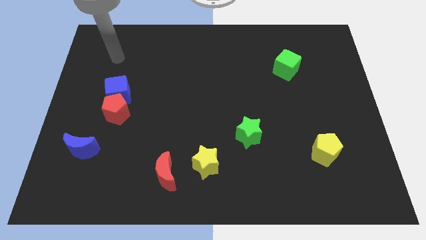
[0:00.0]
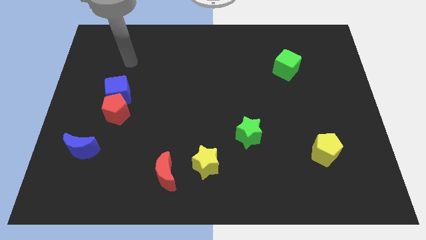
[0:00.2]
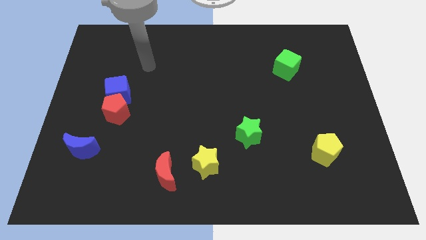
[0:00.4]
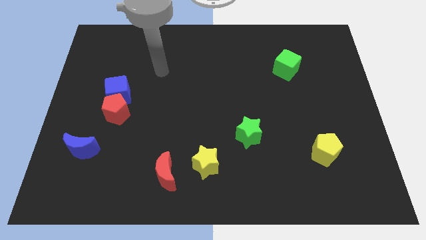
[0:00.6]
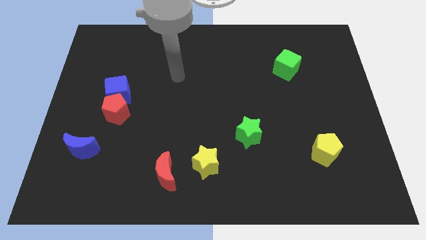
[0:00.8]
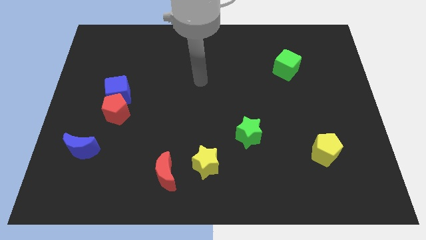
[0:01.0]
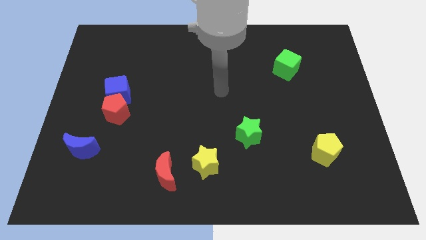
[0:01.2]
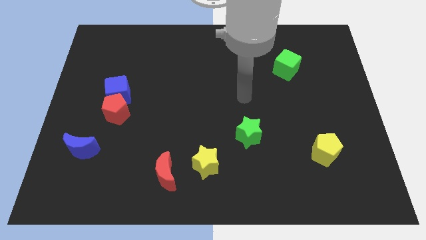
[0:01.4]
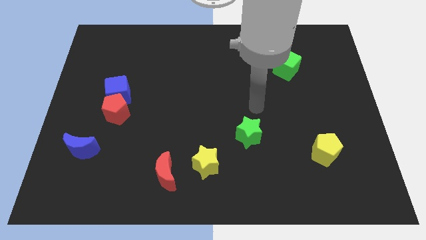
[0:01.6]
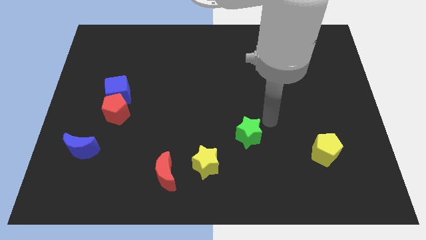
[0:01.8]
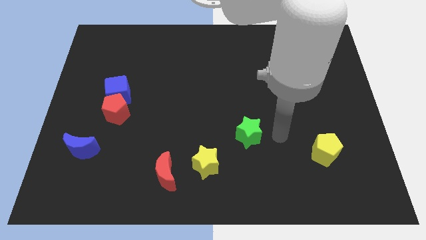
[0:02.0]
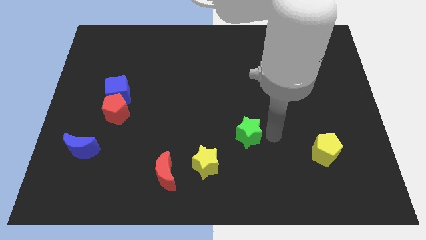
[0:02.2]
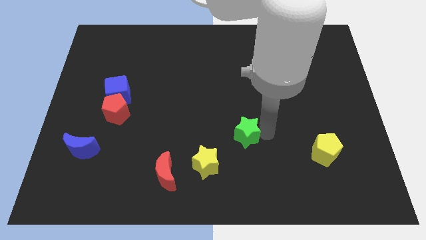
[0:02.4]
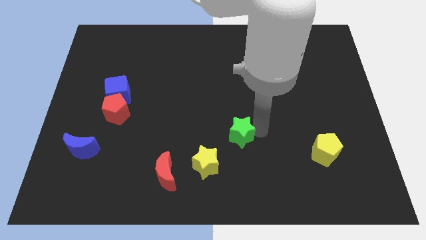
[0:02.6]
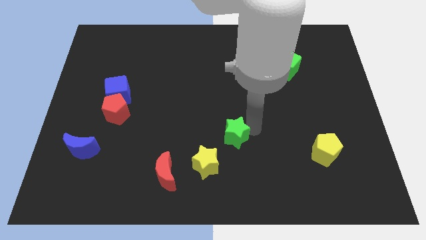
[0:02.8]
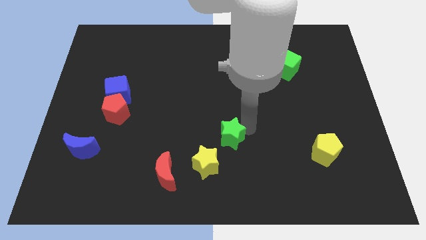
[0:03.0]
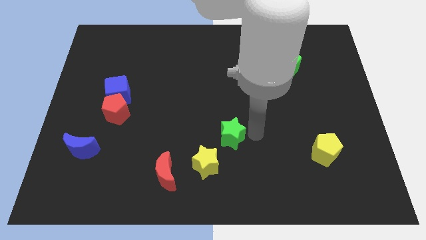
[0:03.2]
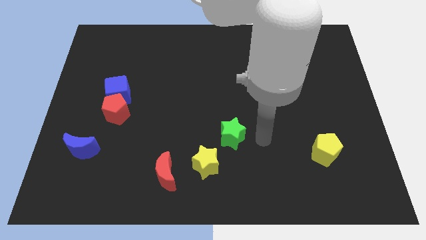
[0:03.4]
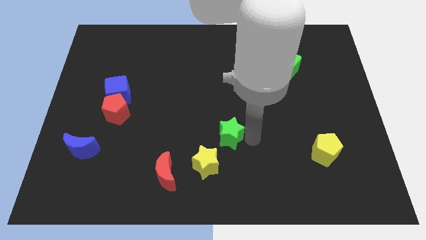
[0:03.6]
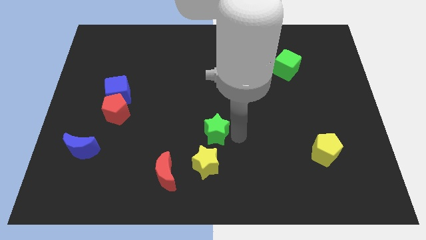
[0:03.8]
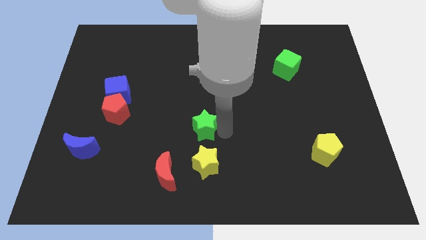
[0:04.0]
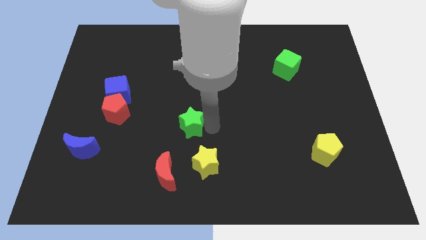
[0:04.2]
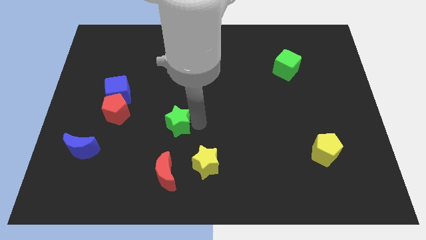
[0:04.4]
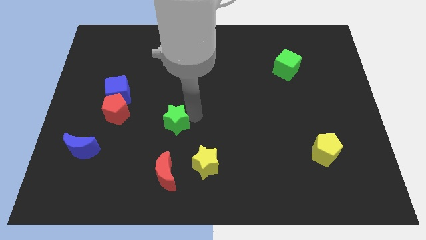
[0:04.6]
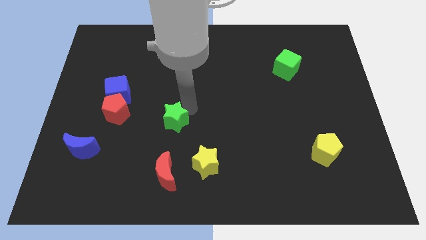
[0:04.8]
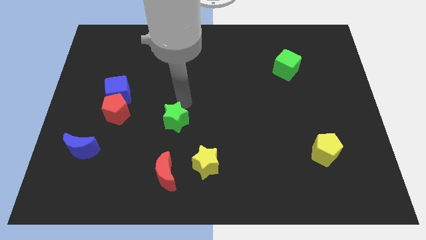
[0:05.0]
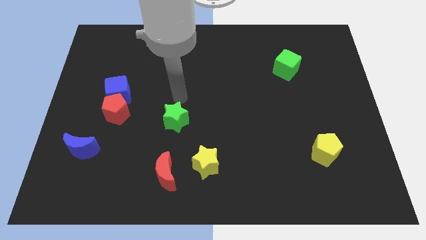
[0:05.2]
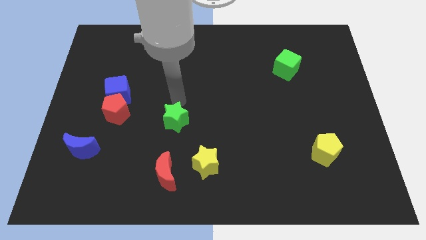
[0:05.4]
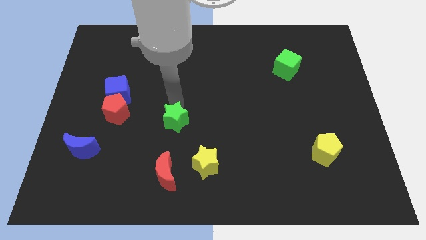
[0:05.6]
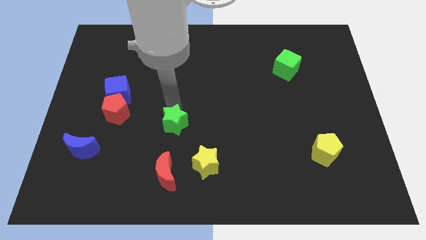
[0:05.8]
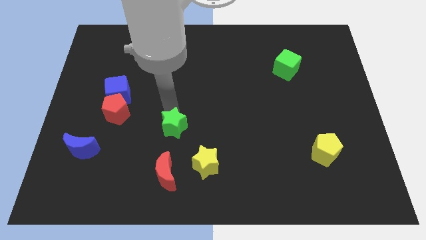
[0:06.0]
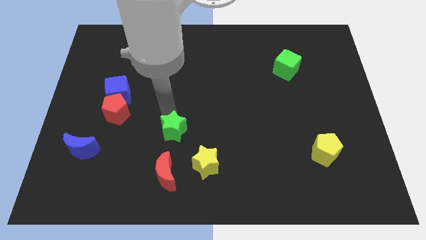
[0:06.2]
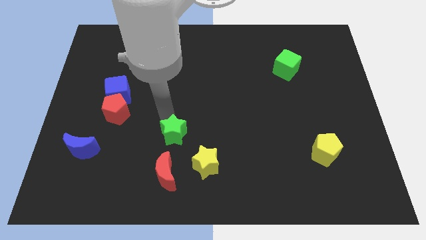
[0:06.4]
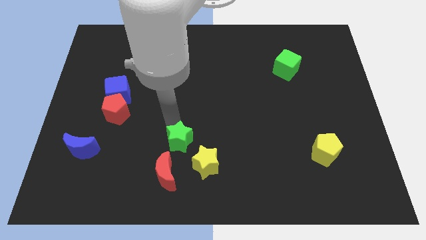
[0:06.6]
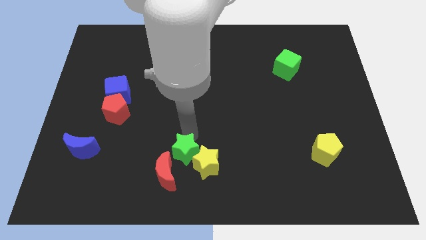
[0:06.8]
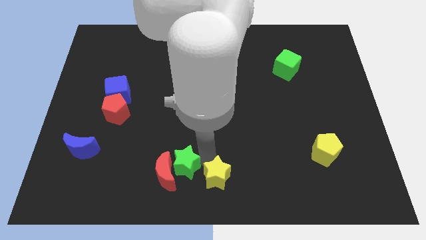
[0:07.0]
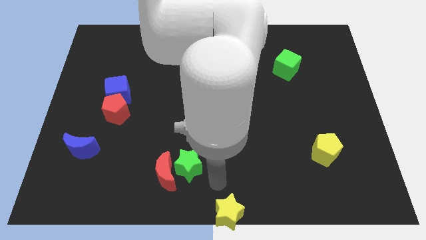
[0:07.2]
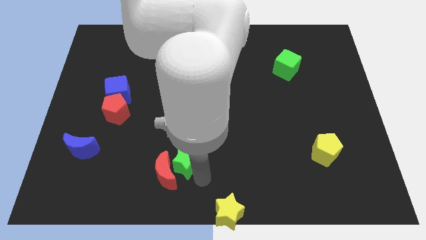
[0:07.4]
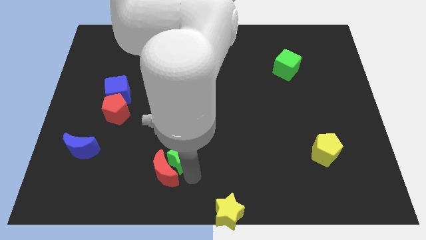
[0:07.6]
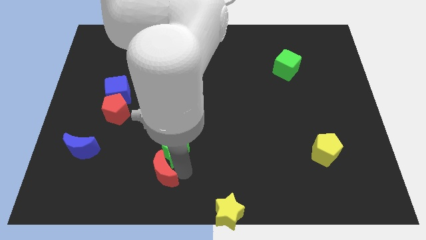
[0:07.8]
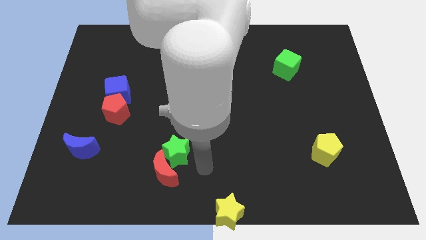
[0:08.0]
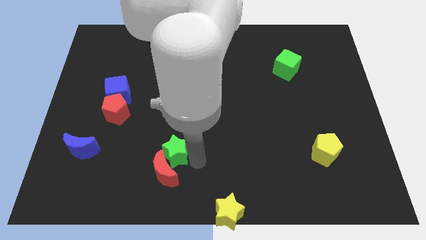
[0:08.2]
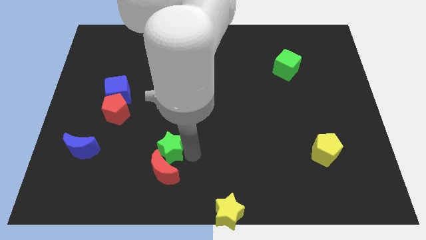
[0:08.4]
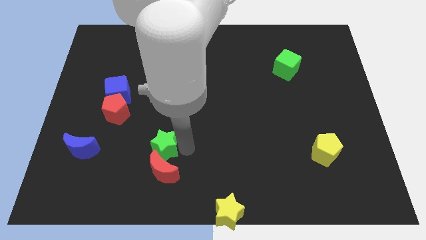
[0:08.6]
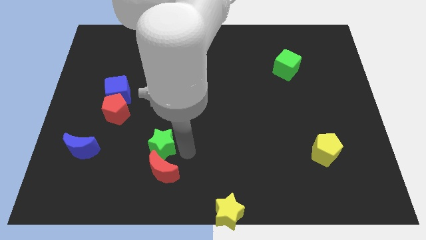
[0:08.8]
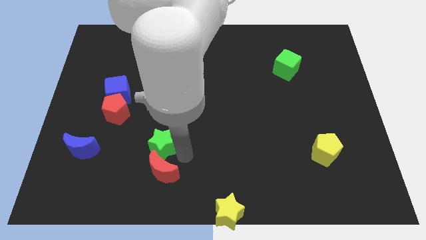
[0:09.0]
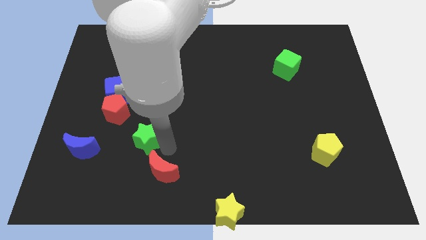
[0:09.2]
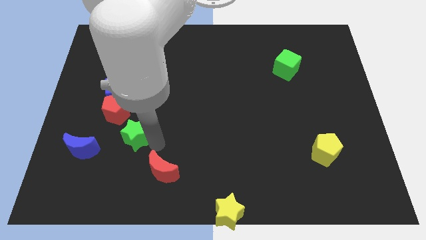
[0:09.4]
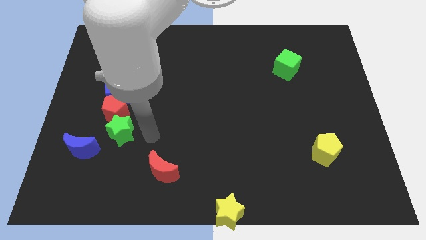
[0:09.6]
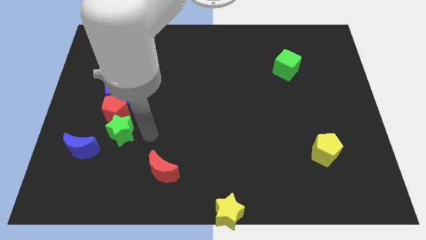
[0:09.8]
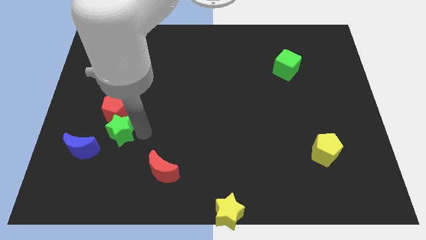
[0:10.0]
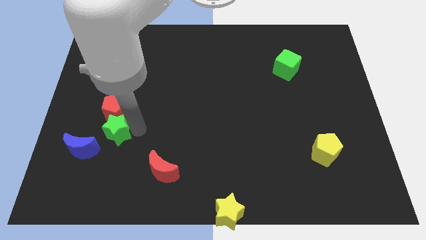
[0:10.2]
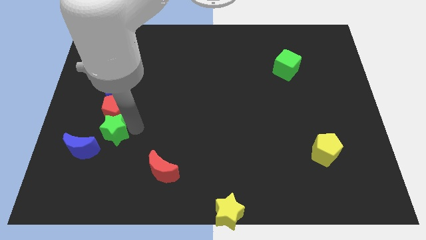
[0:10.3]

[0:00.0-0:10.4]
slide the green star to the bottom left of the red pentagon

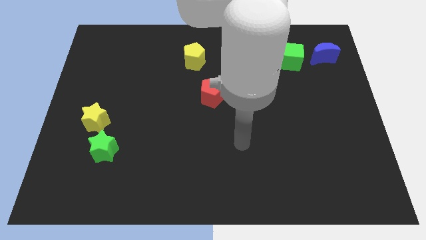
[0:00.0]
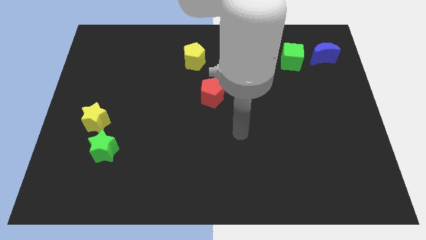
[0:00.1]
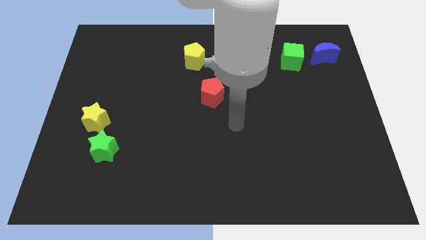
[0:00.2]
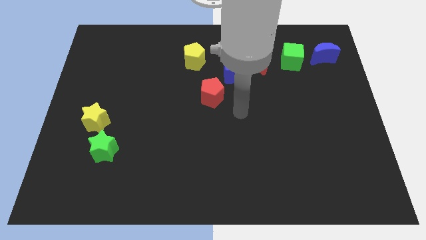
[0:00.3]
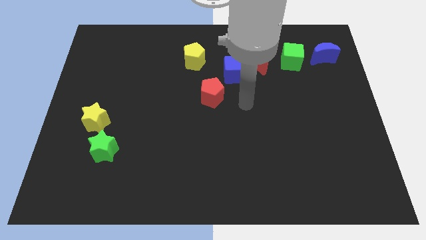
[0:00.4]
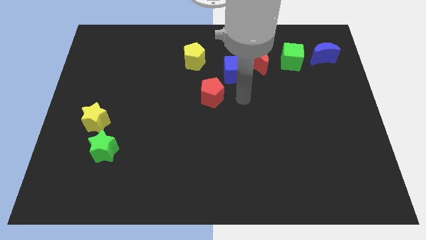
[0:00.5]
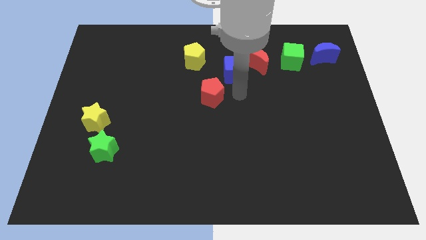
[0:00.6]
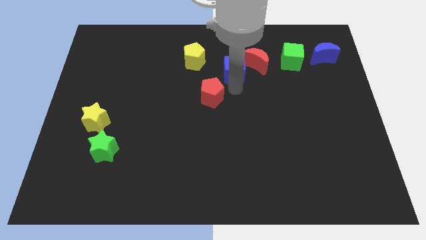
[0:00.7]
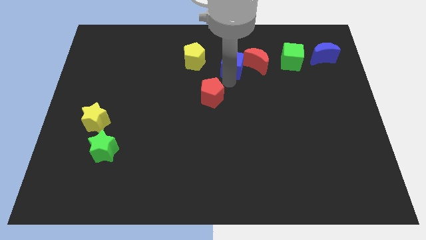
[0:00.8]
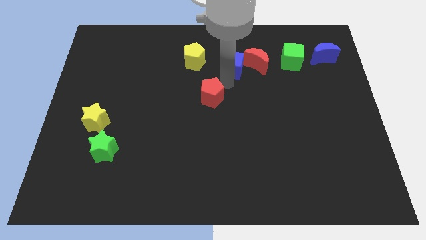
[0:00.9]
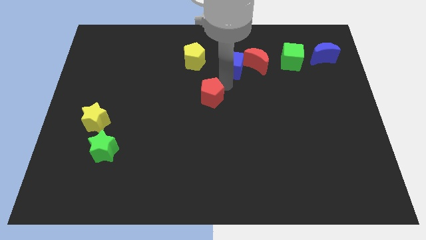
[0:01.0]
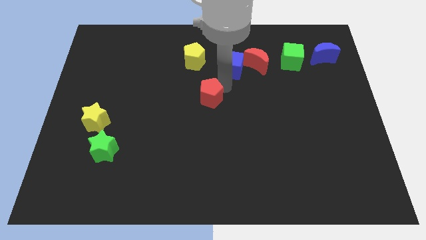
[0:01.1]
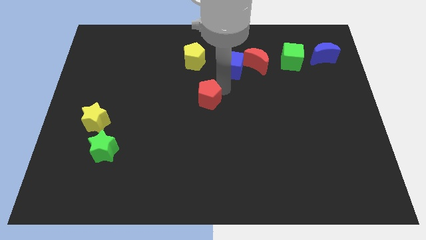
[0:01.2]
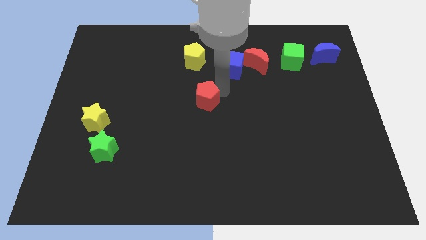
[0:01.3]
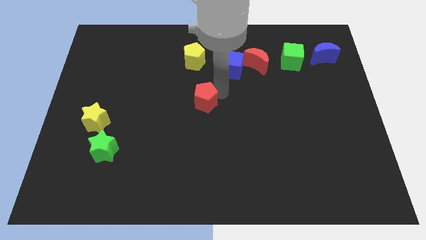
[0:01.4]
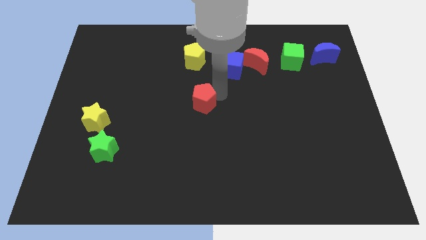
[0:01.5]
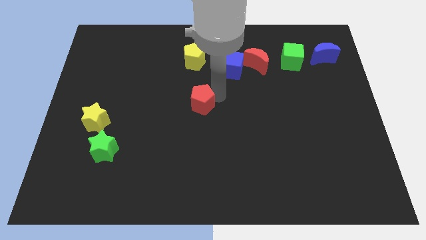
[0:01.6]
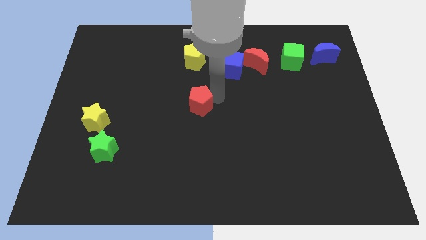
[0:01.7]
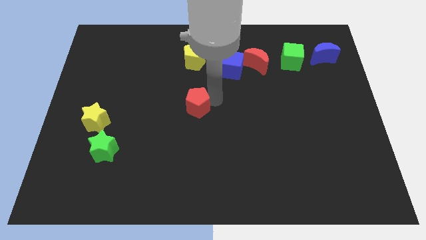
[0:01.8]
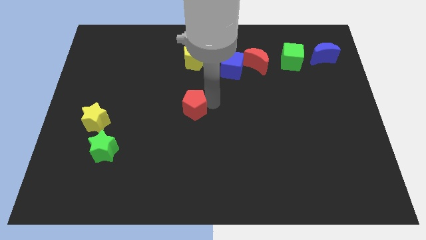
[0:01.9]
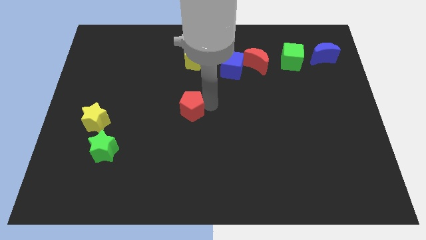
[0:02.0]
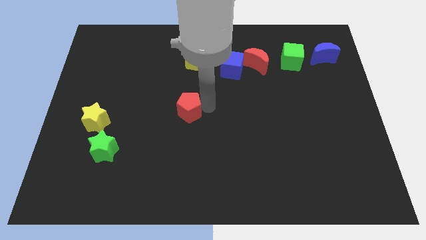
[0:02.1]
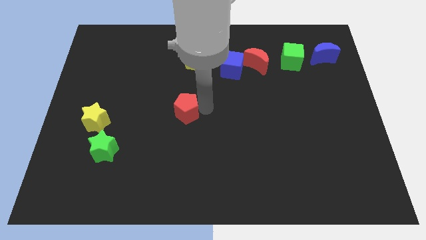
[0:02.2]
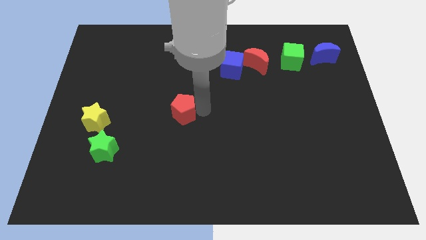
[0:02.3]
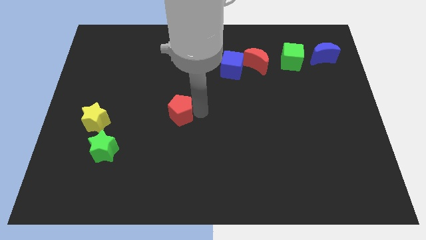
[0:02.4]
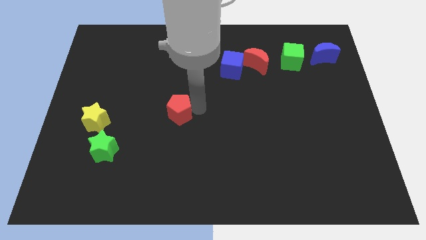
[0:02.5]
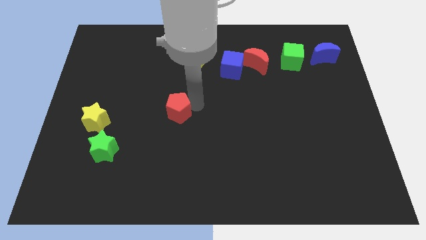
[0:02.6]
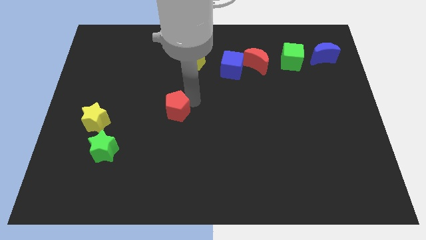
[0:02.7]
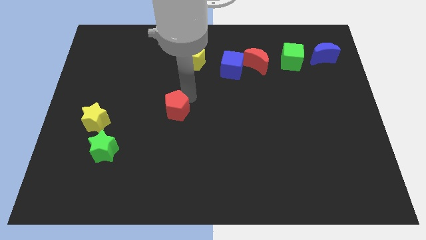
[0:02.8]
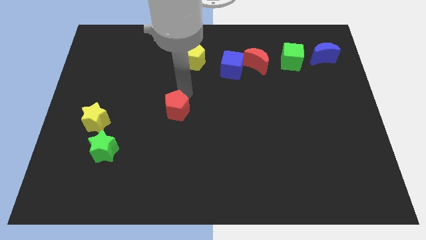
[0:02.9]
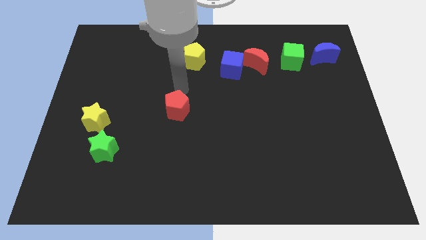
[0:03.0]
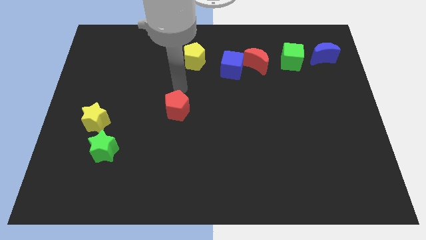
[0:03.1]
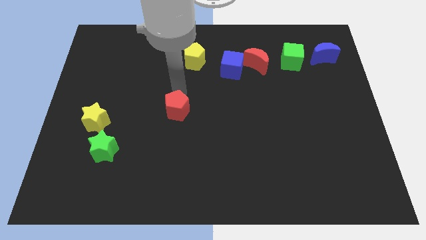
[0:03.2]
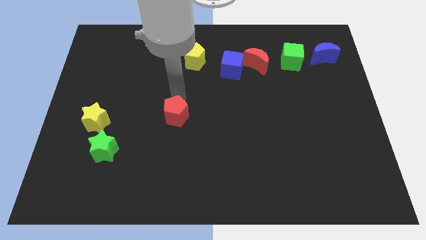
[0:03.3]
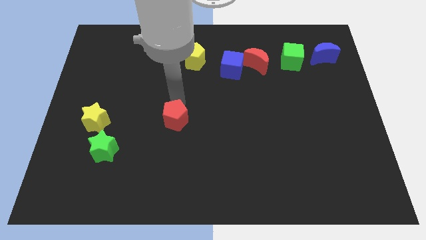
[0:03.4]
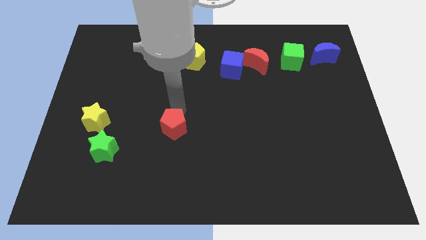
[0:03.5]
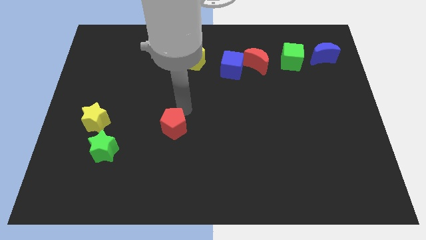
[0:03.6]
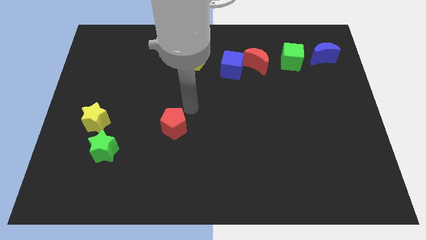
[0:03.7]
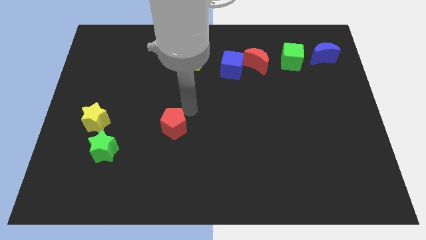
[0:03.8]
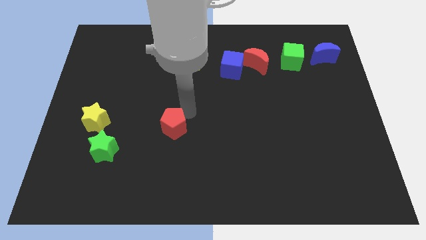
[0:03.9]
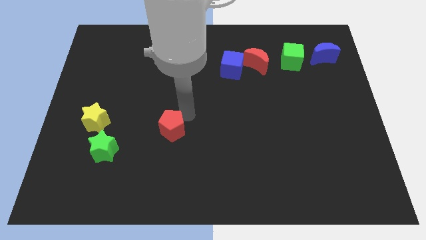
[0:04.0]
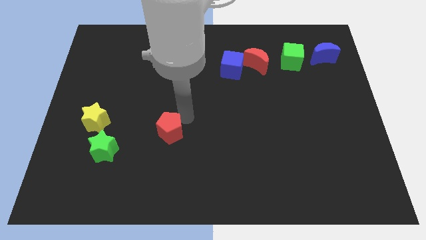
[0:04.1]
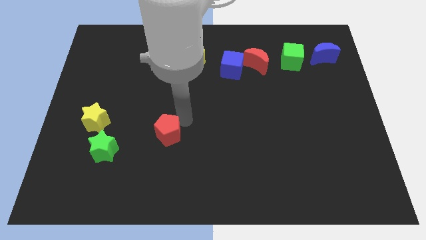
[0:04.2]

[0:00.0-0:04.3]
put the red pentagon just right of the green star
